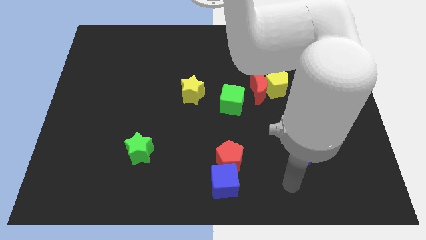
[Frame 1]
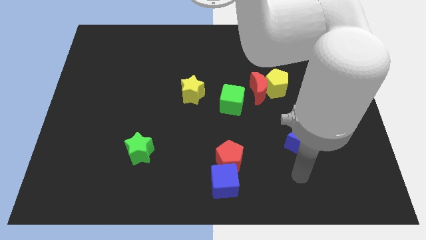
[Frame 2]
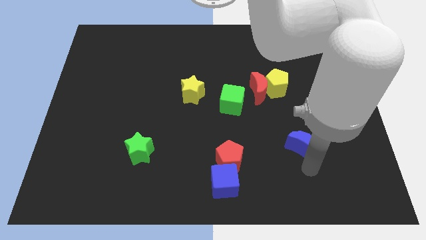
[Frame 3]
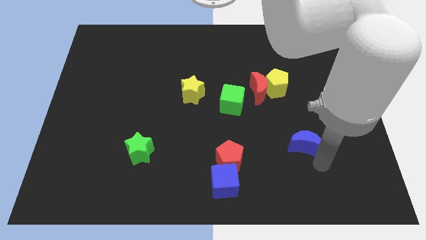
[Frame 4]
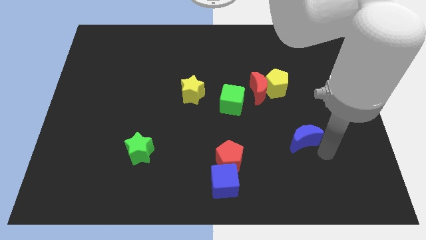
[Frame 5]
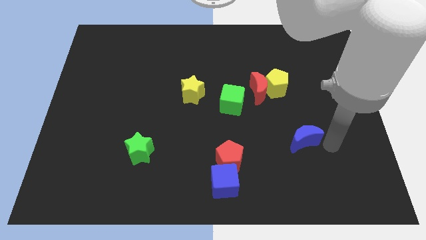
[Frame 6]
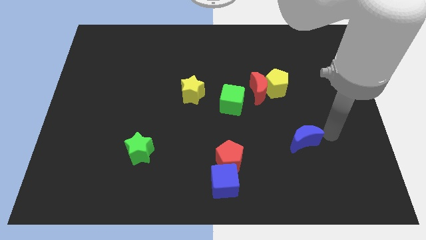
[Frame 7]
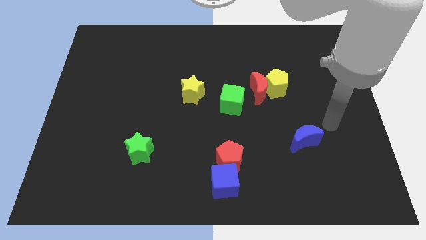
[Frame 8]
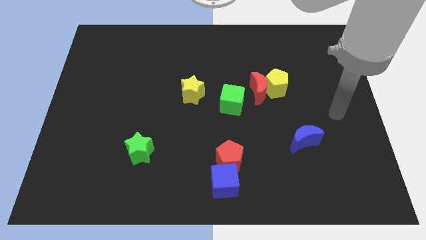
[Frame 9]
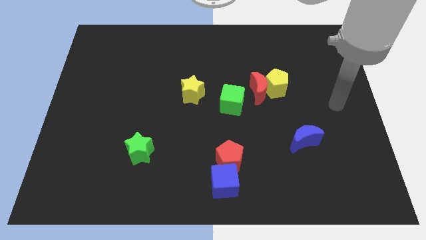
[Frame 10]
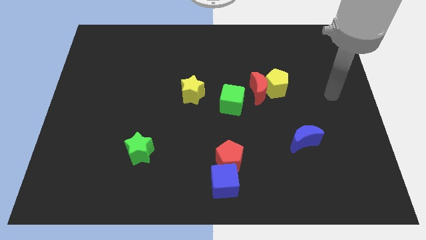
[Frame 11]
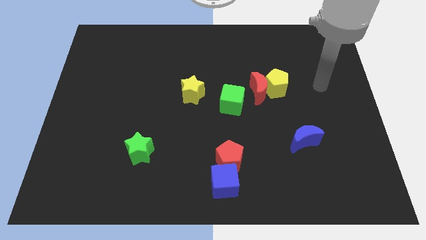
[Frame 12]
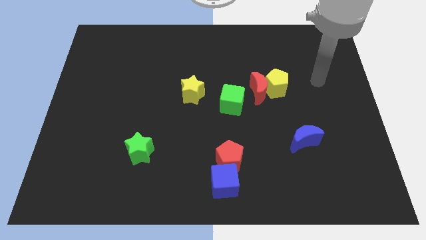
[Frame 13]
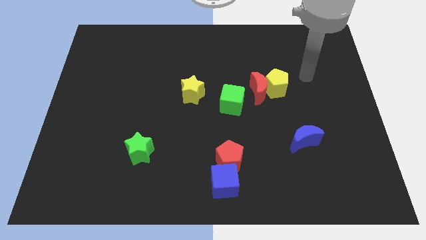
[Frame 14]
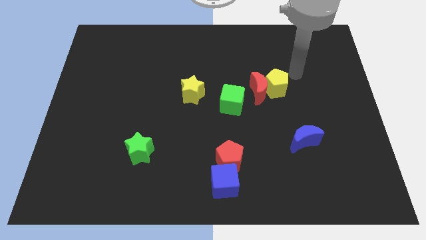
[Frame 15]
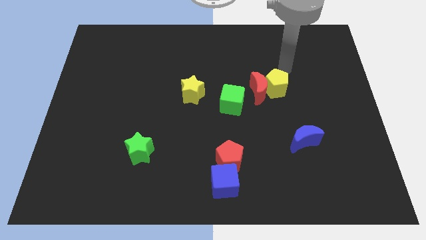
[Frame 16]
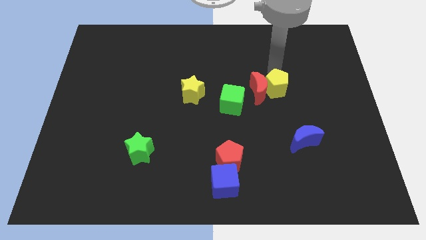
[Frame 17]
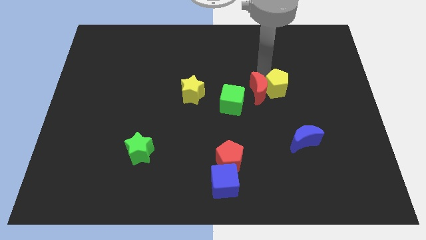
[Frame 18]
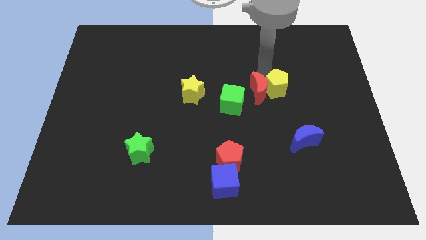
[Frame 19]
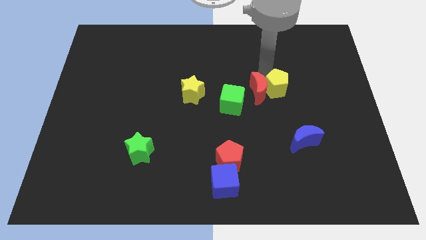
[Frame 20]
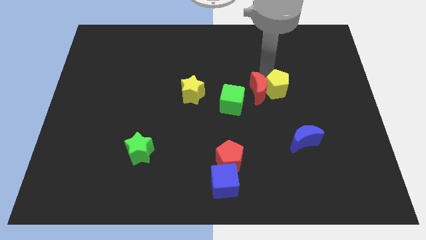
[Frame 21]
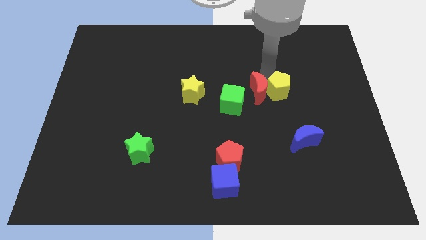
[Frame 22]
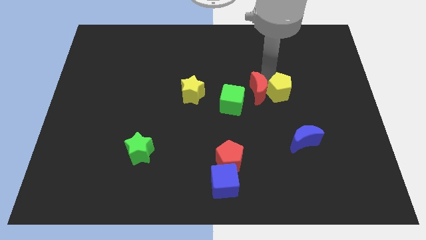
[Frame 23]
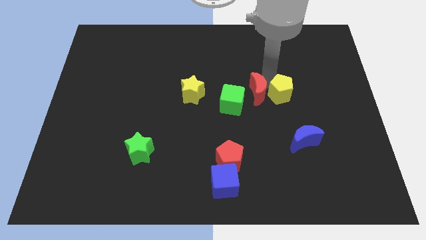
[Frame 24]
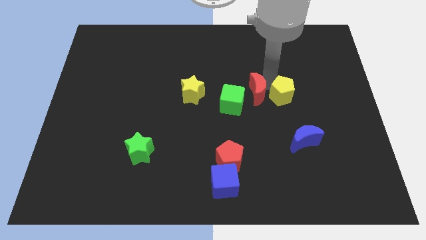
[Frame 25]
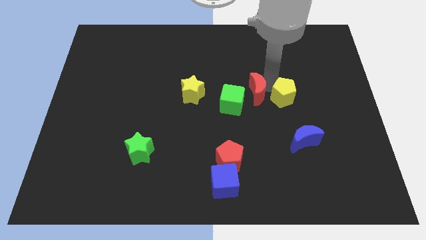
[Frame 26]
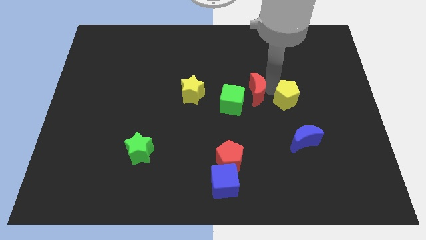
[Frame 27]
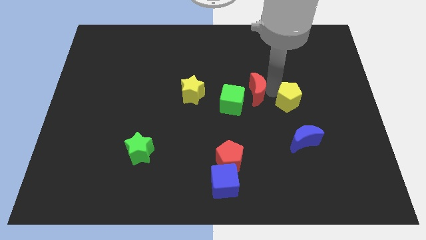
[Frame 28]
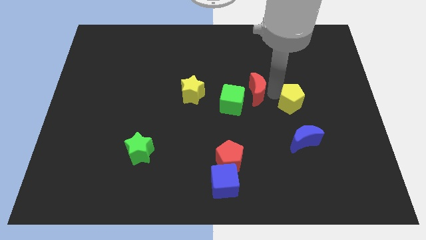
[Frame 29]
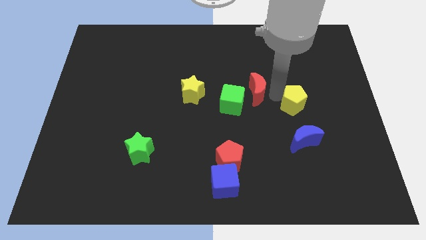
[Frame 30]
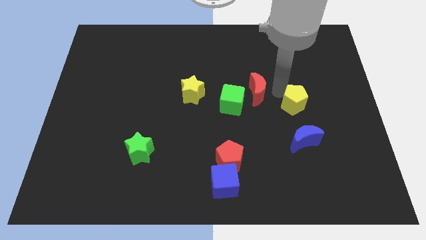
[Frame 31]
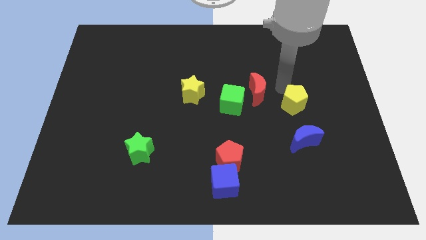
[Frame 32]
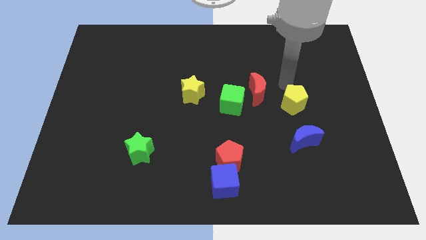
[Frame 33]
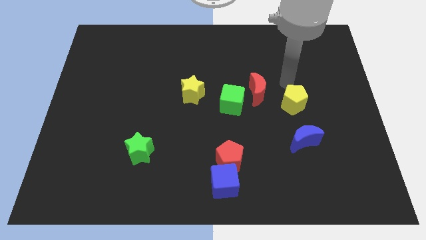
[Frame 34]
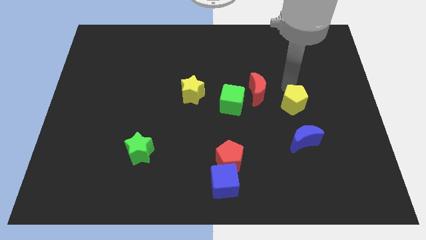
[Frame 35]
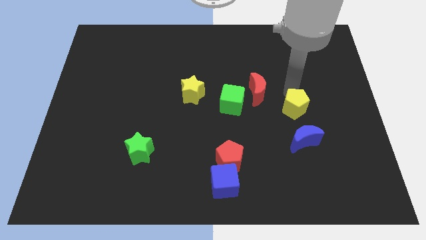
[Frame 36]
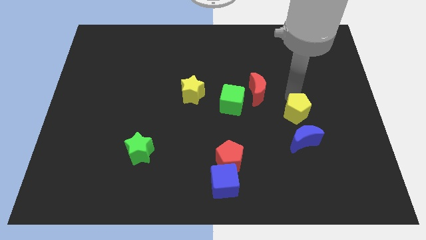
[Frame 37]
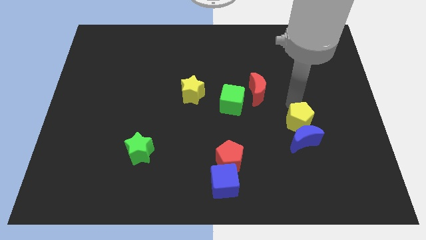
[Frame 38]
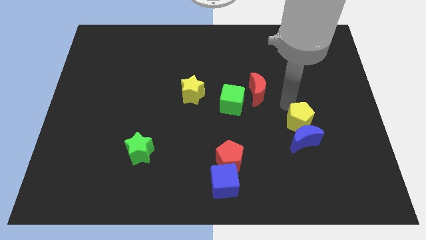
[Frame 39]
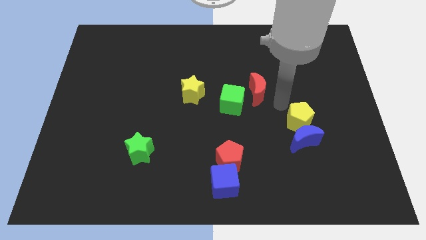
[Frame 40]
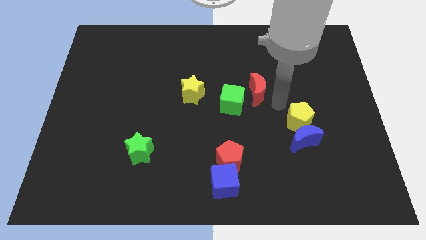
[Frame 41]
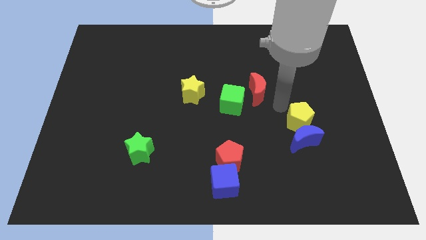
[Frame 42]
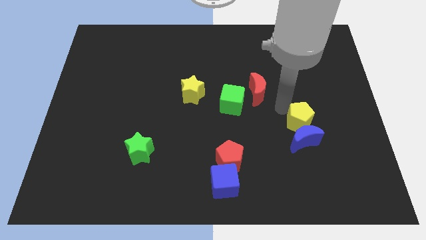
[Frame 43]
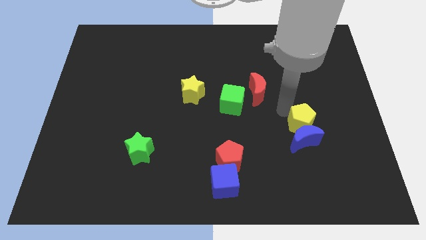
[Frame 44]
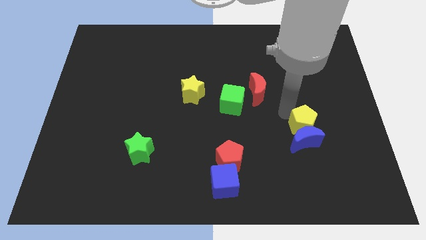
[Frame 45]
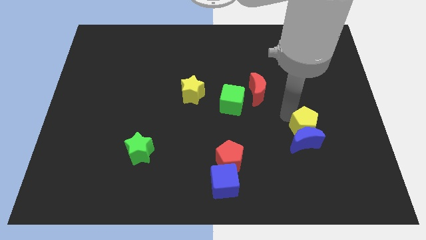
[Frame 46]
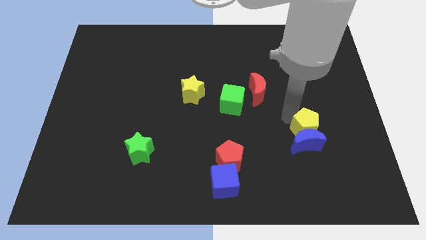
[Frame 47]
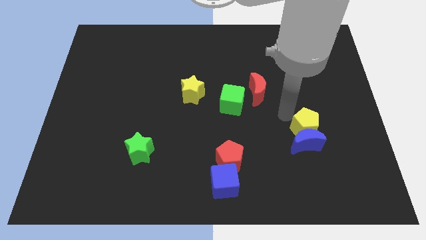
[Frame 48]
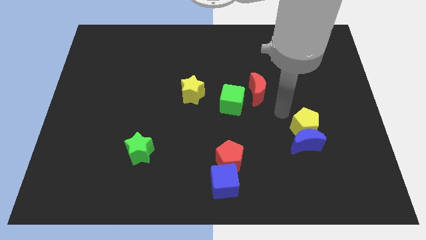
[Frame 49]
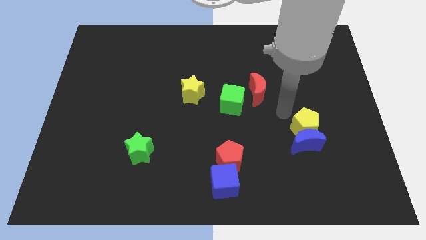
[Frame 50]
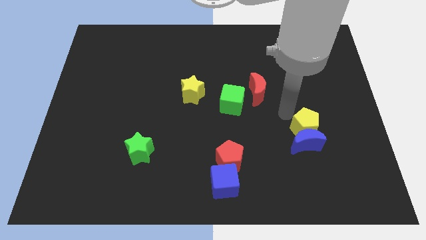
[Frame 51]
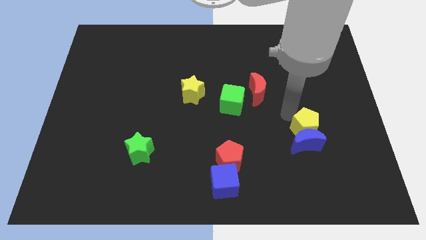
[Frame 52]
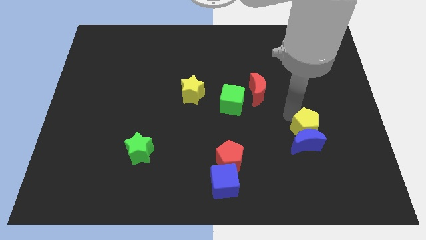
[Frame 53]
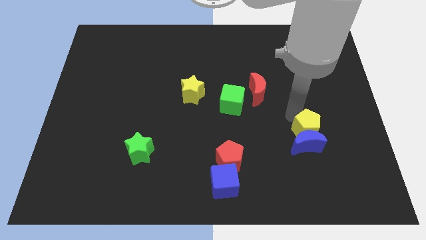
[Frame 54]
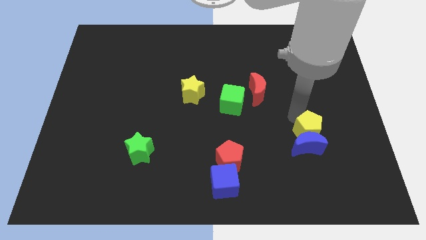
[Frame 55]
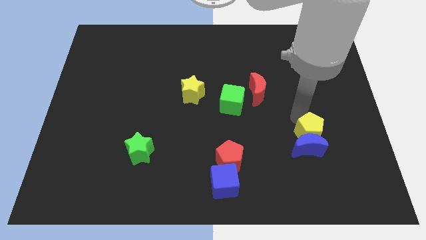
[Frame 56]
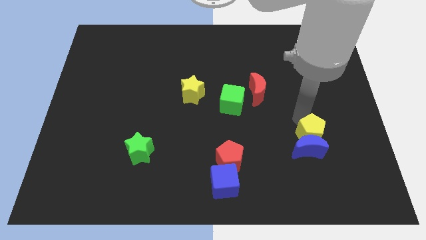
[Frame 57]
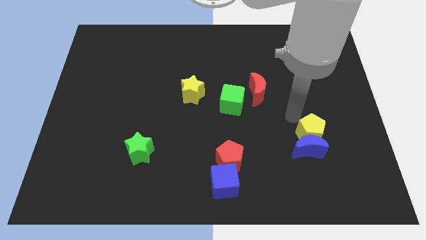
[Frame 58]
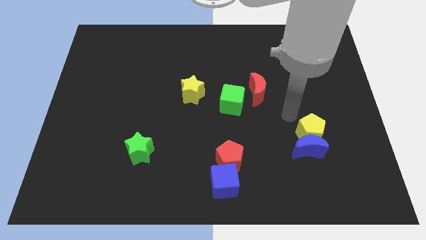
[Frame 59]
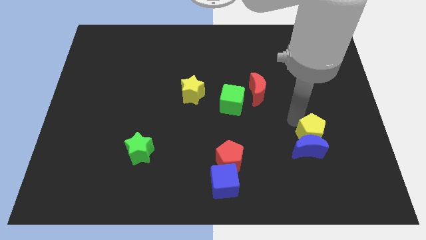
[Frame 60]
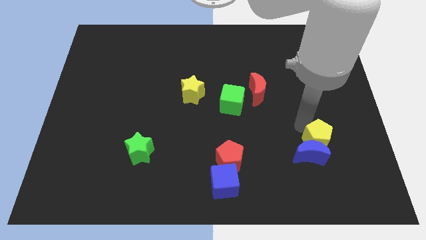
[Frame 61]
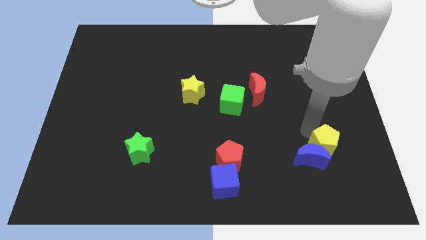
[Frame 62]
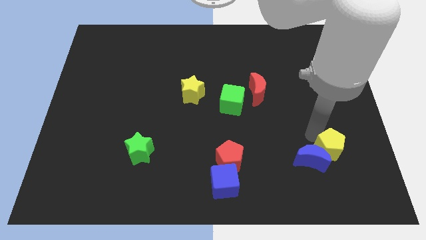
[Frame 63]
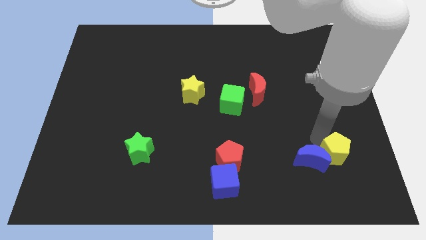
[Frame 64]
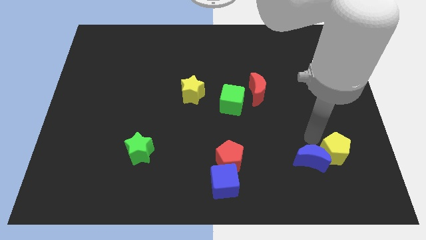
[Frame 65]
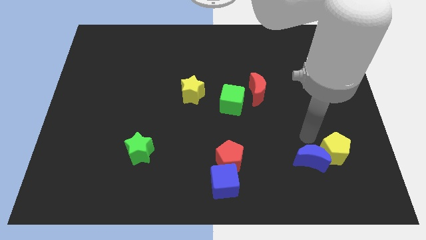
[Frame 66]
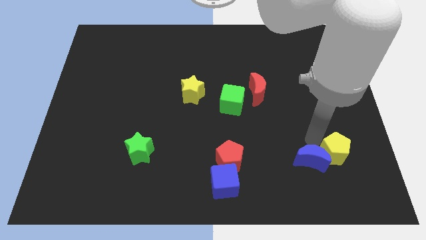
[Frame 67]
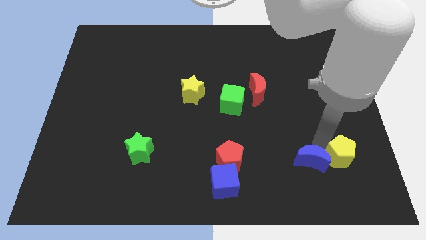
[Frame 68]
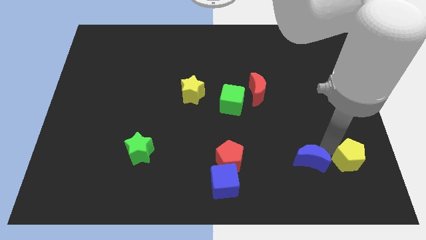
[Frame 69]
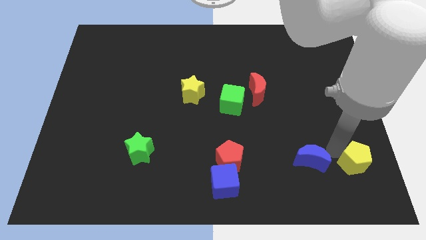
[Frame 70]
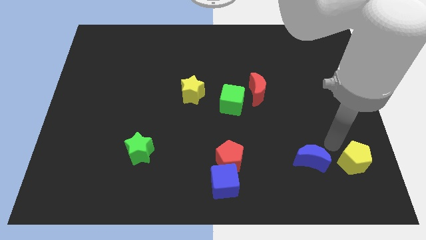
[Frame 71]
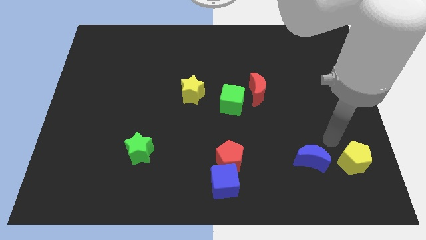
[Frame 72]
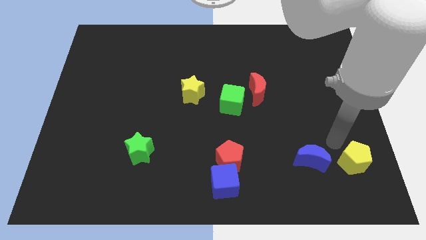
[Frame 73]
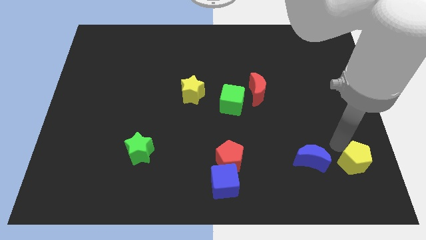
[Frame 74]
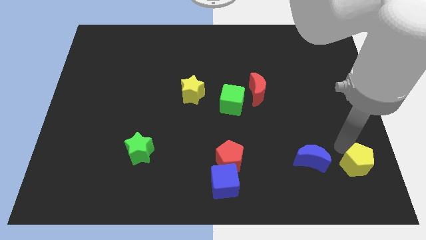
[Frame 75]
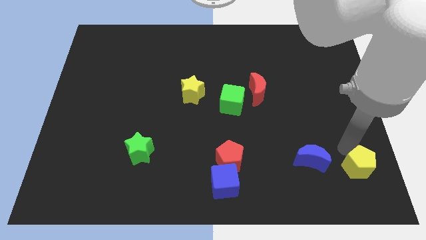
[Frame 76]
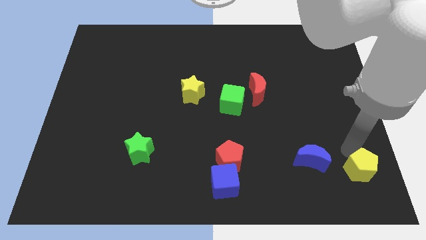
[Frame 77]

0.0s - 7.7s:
put the yellow pentagon to the lower right corner
